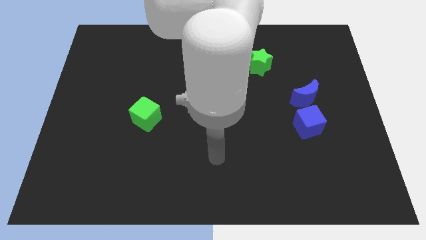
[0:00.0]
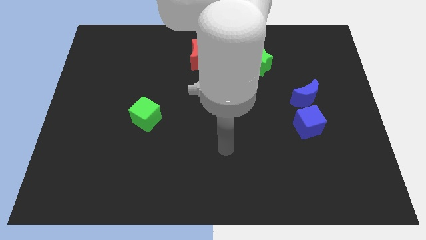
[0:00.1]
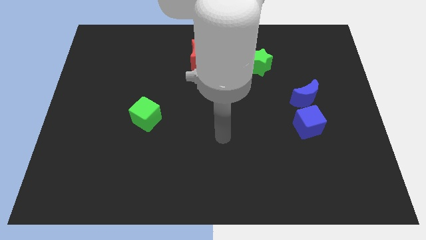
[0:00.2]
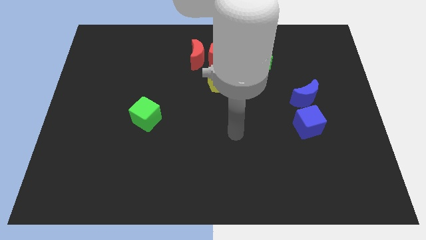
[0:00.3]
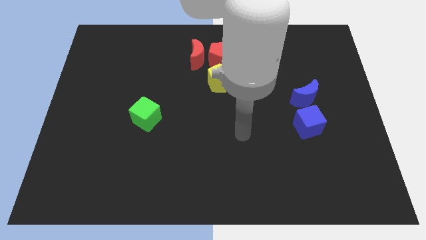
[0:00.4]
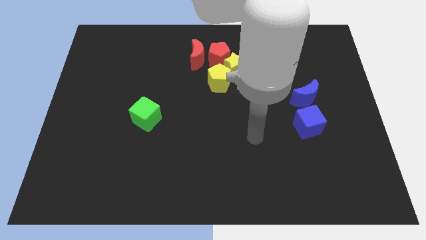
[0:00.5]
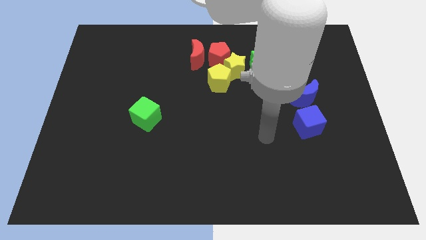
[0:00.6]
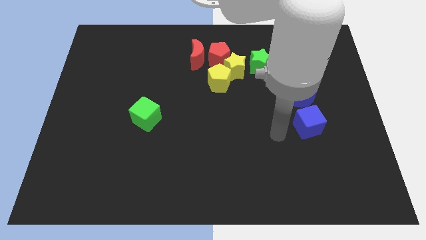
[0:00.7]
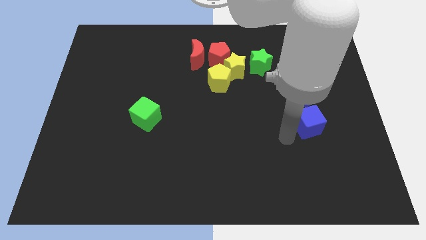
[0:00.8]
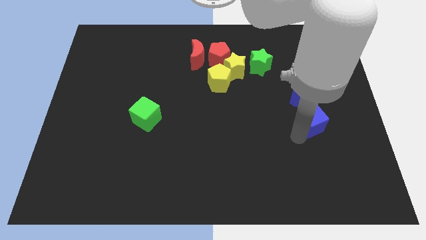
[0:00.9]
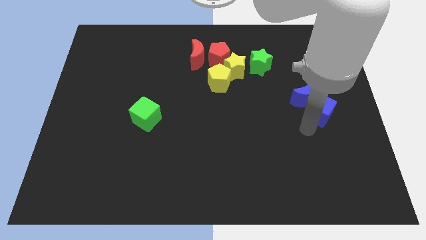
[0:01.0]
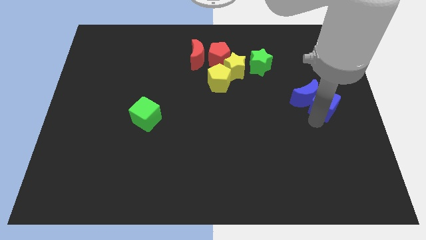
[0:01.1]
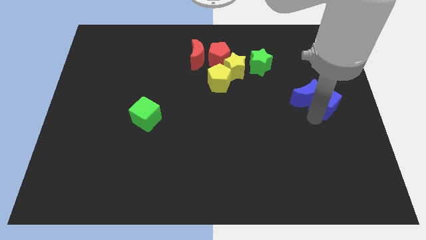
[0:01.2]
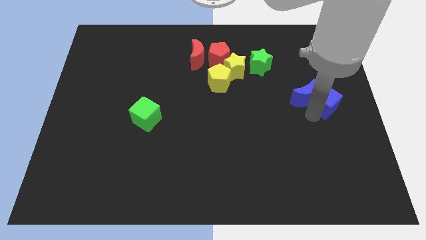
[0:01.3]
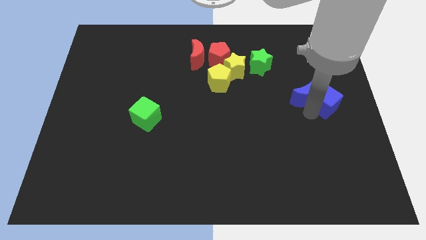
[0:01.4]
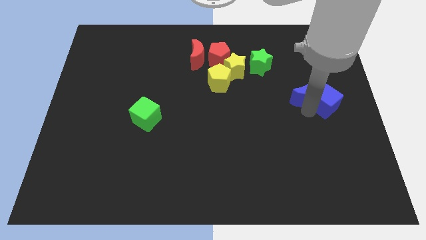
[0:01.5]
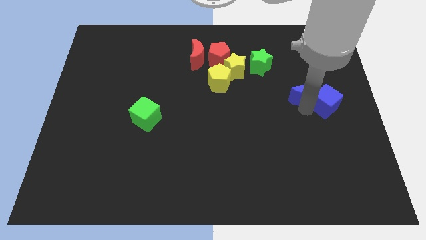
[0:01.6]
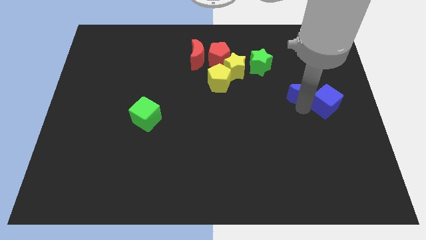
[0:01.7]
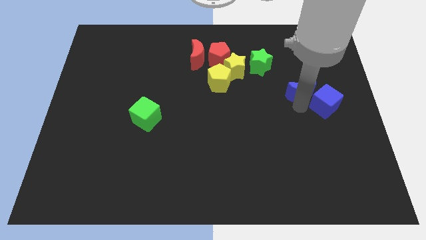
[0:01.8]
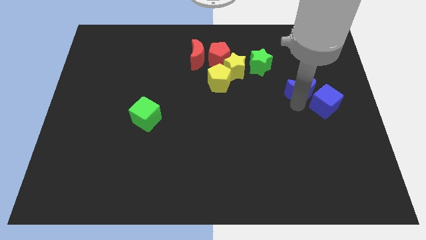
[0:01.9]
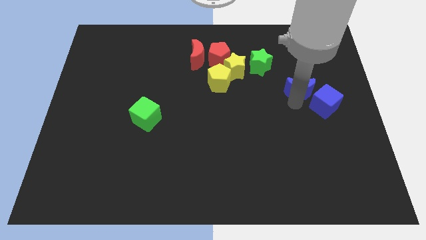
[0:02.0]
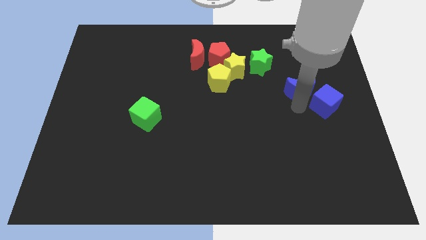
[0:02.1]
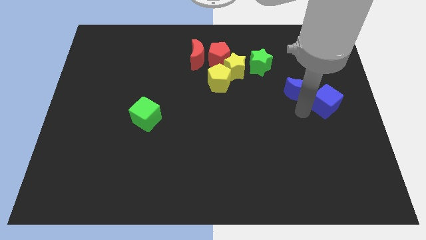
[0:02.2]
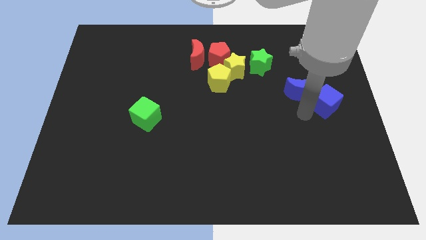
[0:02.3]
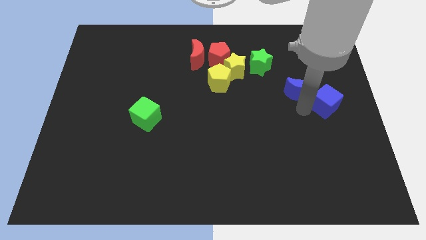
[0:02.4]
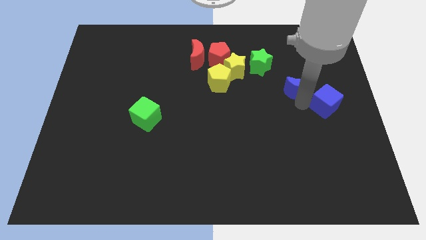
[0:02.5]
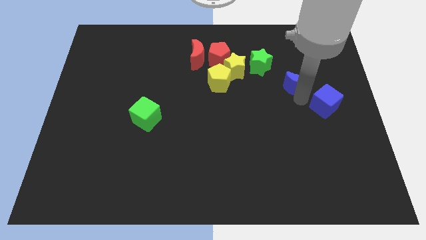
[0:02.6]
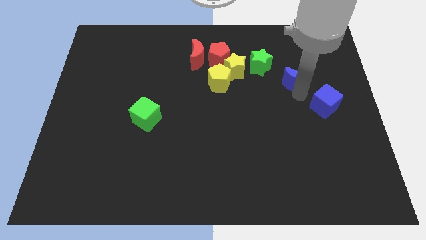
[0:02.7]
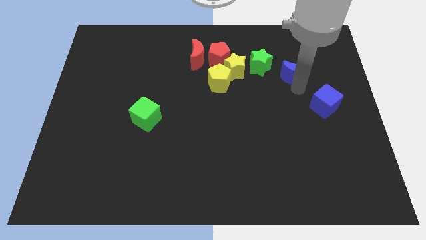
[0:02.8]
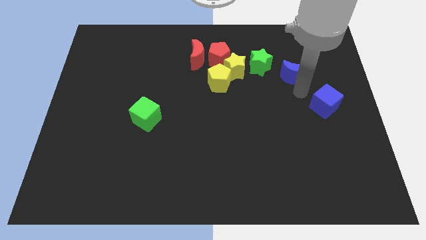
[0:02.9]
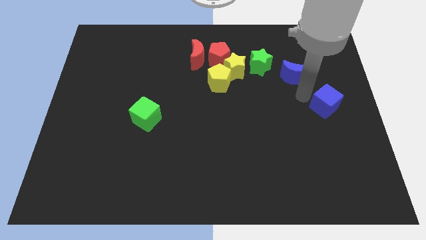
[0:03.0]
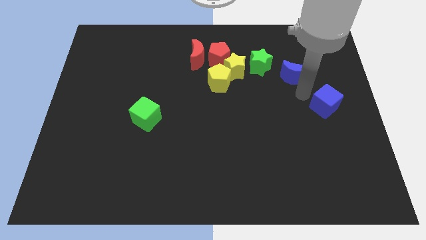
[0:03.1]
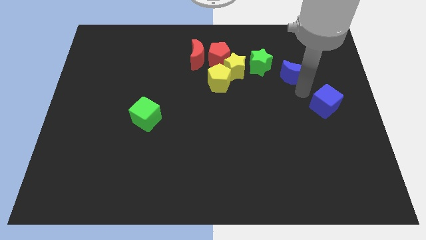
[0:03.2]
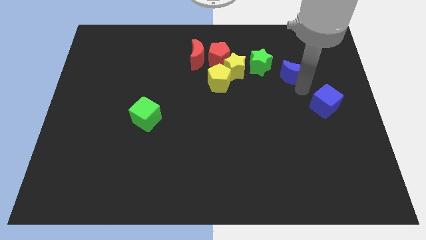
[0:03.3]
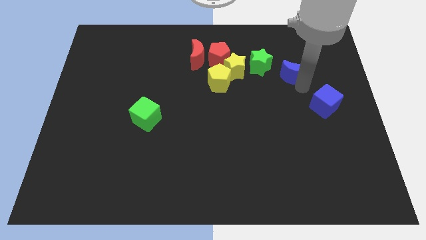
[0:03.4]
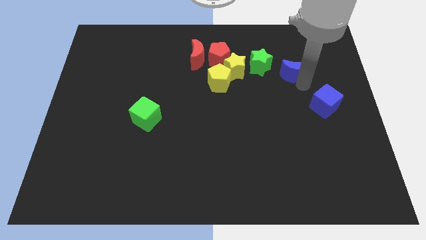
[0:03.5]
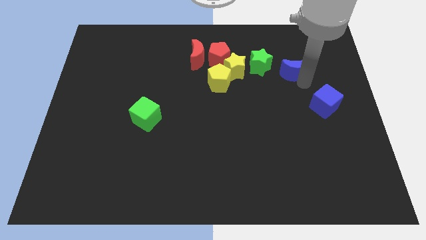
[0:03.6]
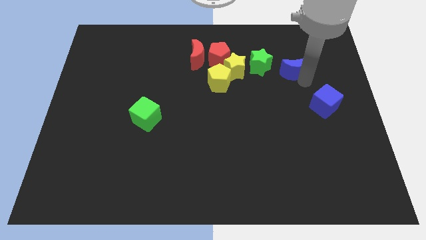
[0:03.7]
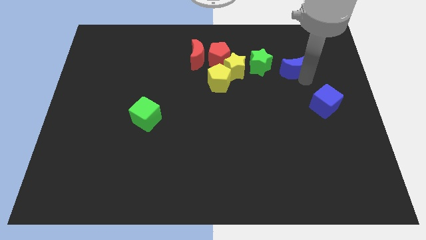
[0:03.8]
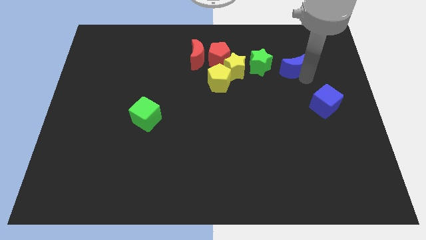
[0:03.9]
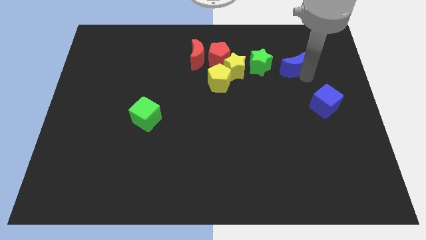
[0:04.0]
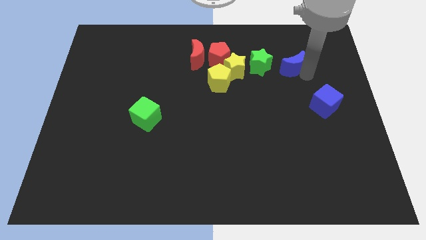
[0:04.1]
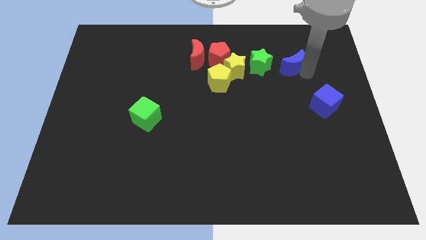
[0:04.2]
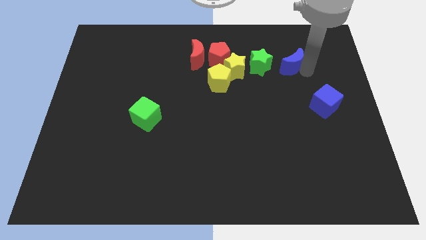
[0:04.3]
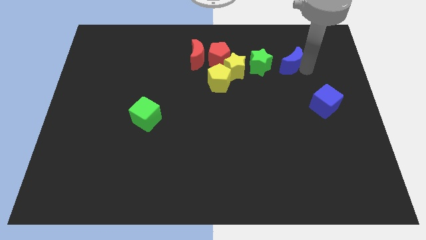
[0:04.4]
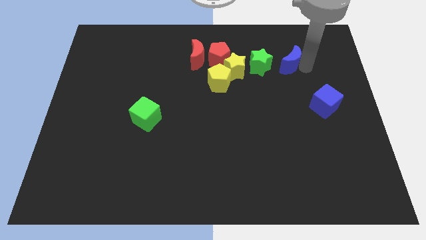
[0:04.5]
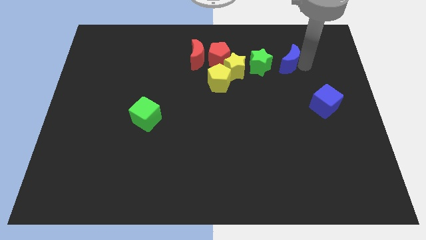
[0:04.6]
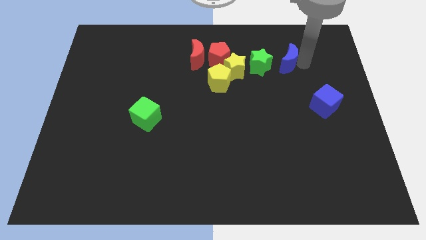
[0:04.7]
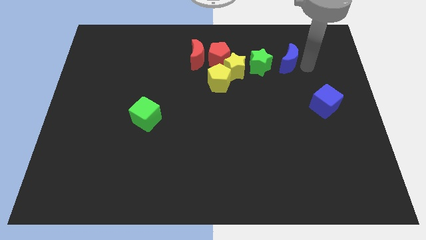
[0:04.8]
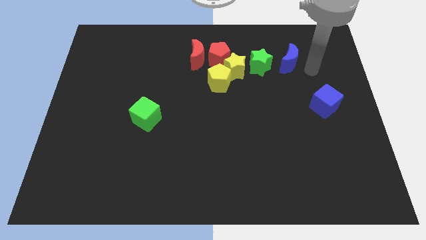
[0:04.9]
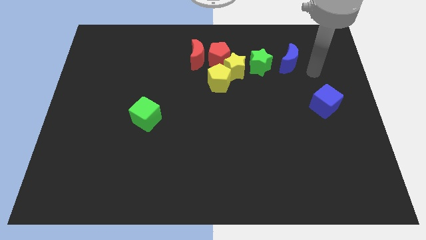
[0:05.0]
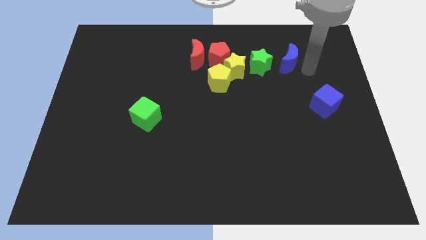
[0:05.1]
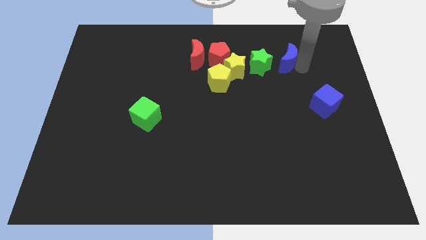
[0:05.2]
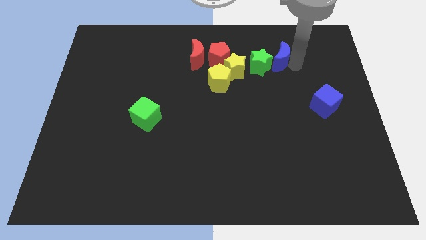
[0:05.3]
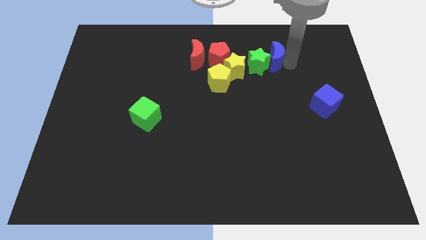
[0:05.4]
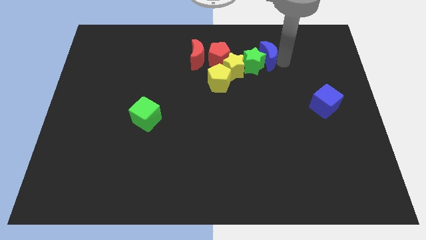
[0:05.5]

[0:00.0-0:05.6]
put the blue moon to the top right side of the yellow star

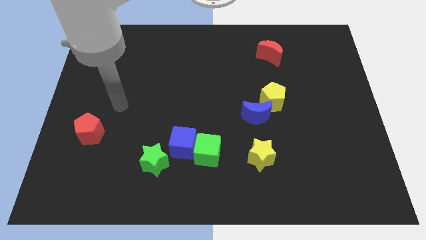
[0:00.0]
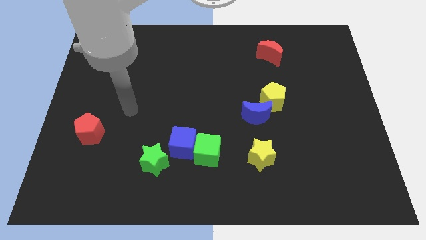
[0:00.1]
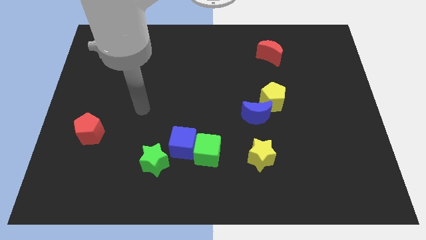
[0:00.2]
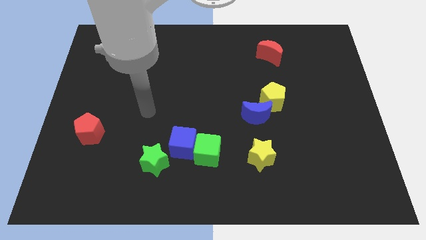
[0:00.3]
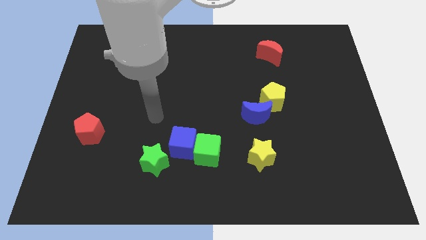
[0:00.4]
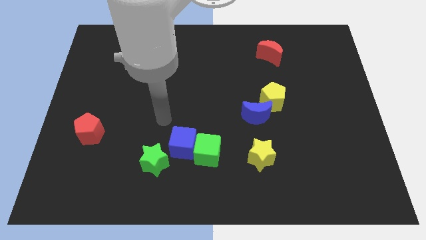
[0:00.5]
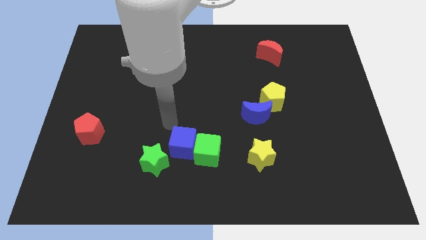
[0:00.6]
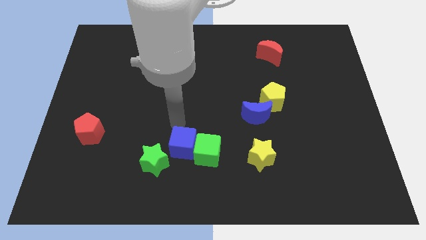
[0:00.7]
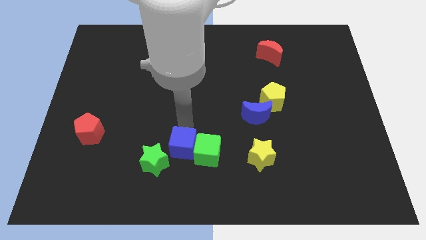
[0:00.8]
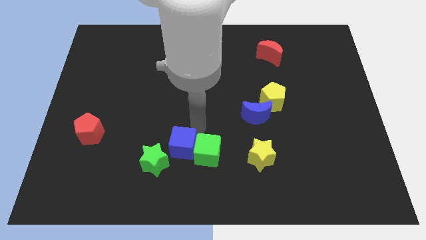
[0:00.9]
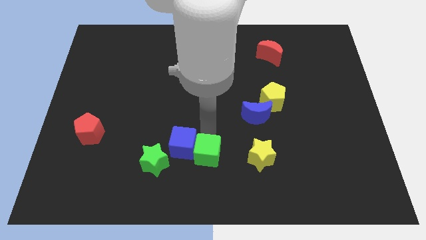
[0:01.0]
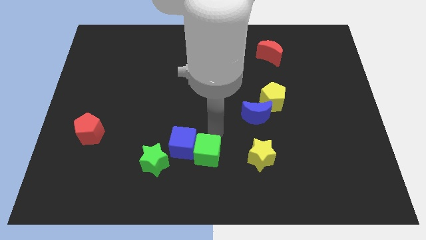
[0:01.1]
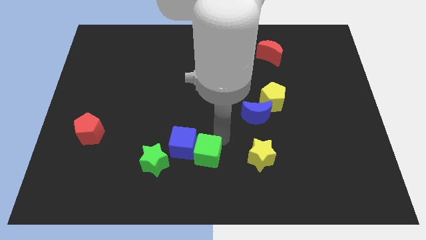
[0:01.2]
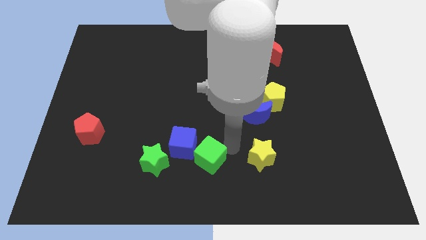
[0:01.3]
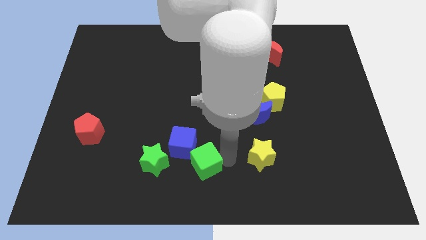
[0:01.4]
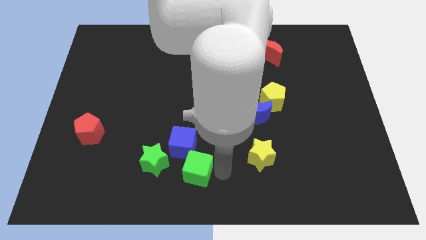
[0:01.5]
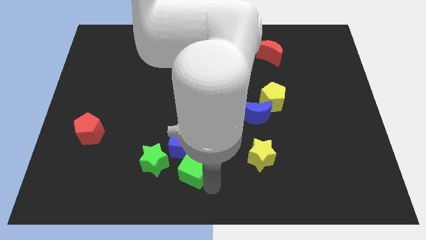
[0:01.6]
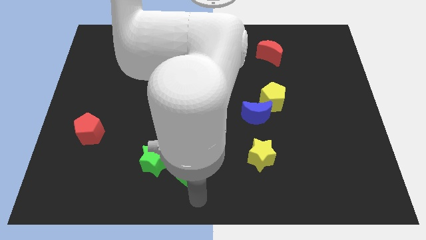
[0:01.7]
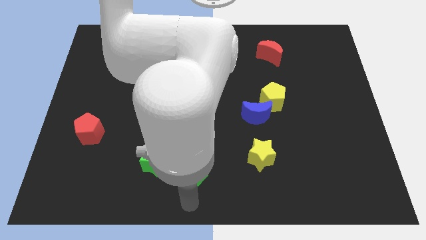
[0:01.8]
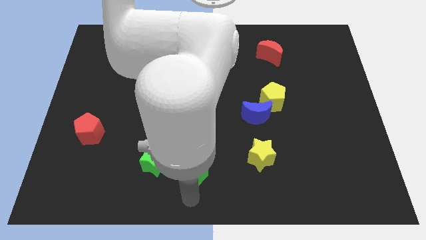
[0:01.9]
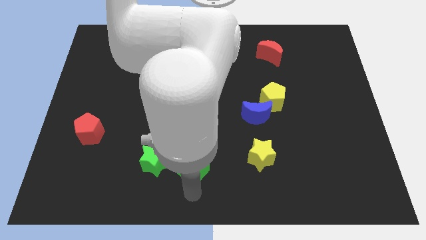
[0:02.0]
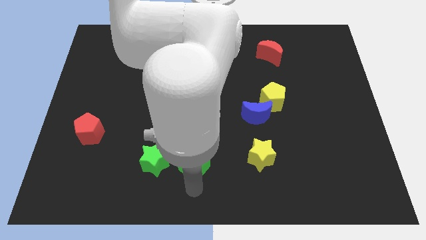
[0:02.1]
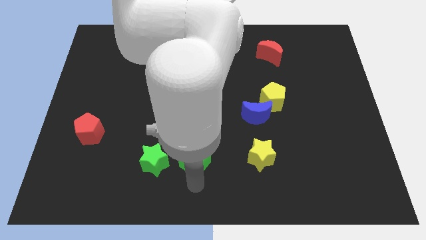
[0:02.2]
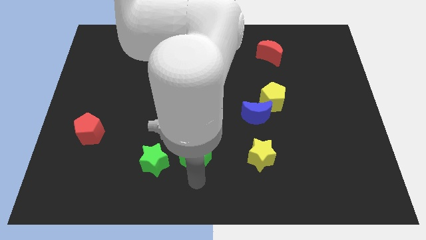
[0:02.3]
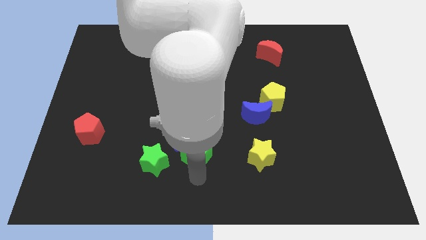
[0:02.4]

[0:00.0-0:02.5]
put the green cube to the top right of the green star

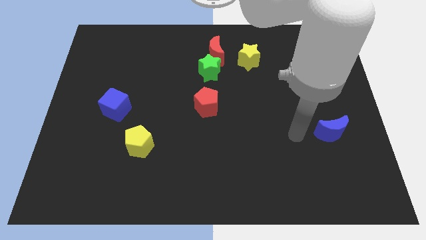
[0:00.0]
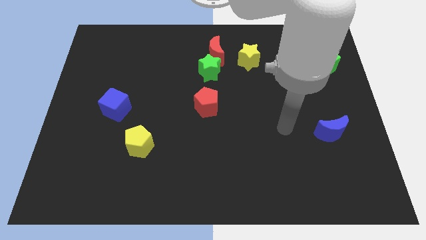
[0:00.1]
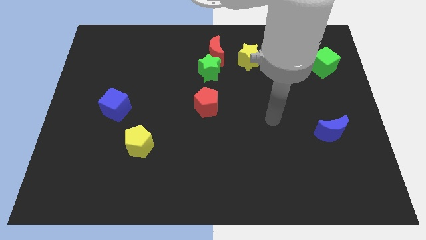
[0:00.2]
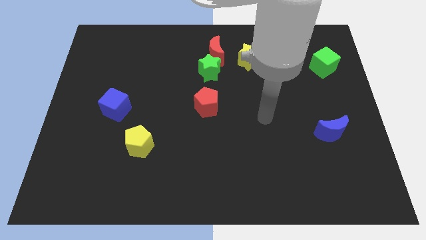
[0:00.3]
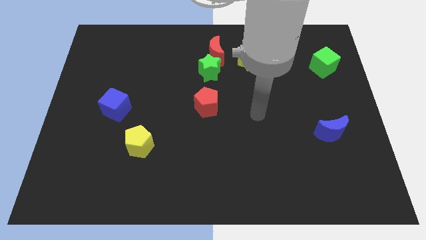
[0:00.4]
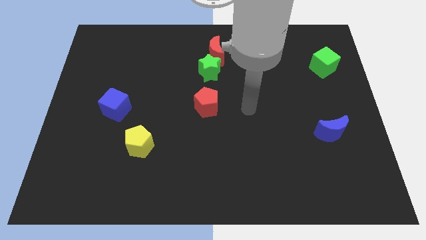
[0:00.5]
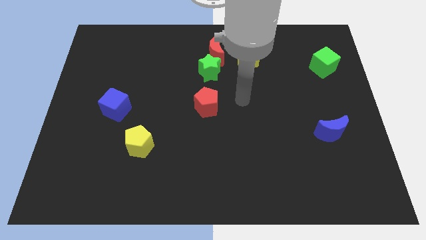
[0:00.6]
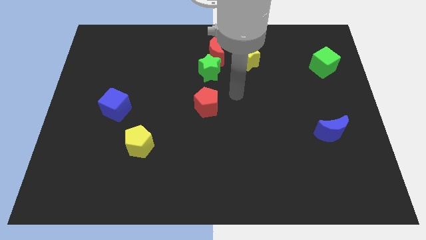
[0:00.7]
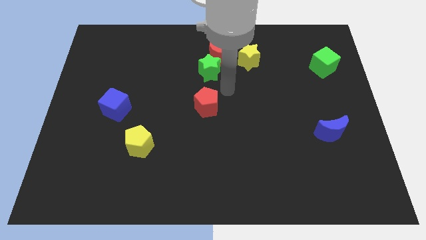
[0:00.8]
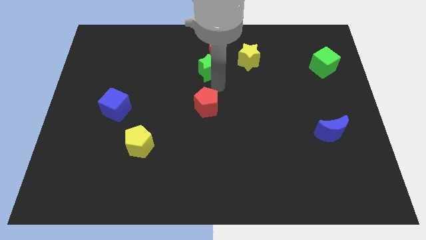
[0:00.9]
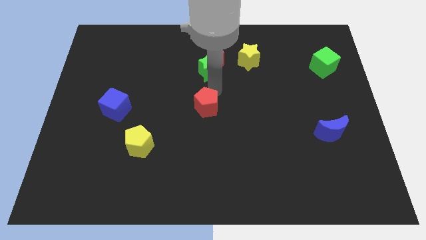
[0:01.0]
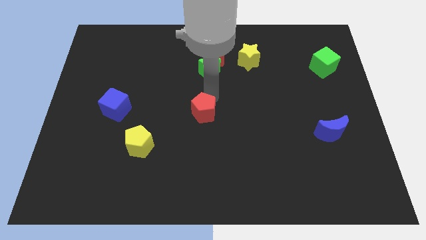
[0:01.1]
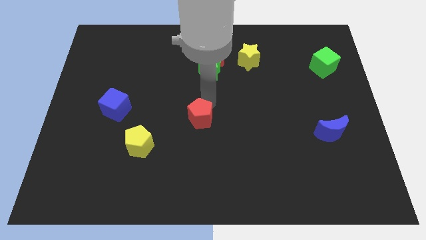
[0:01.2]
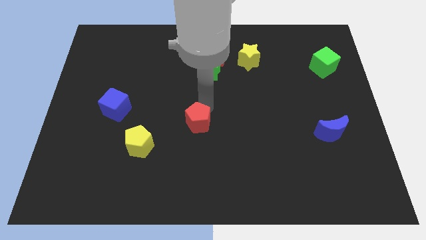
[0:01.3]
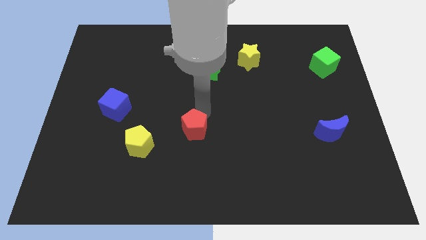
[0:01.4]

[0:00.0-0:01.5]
push the red pentagon to the right of the yellow pentagon
